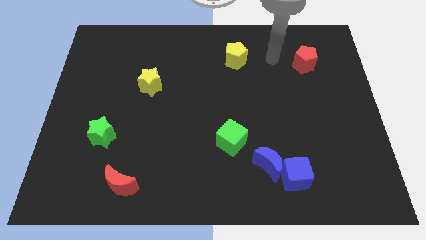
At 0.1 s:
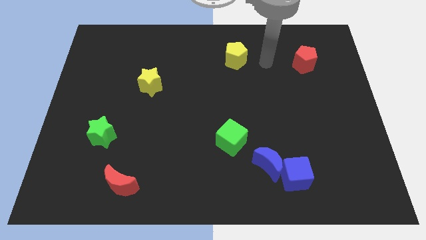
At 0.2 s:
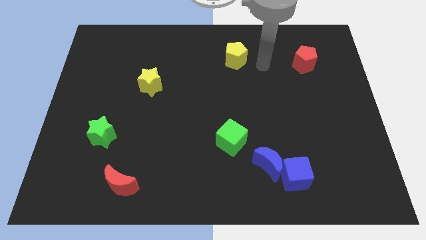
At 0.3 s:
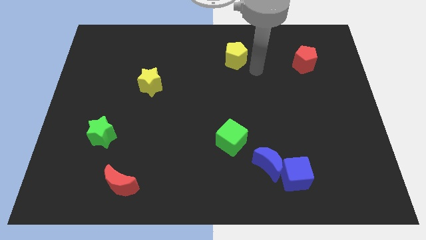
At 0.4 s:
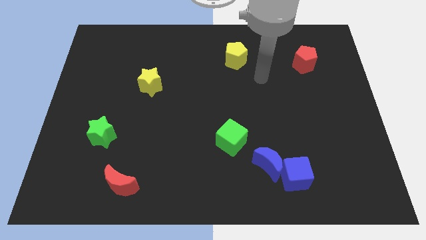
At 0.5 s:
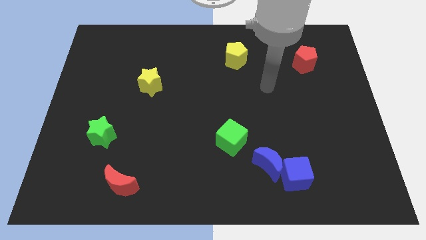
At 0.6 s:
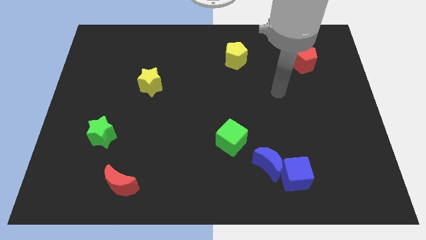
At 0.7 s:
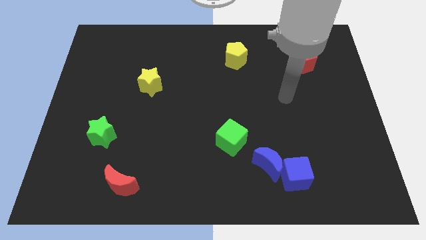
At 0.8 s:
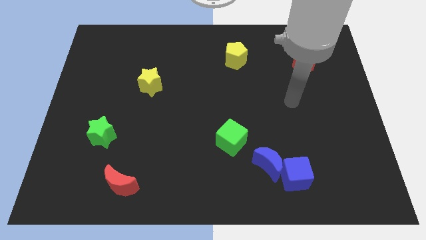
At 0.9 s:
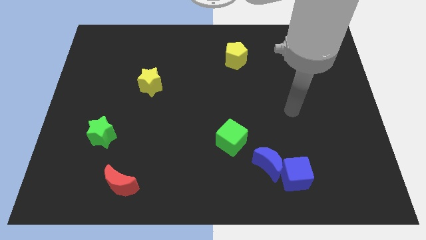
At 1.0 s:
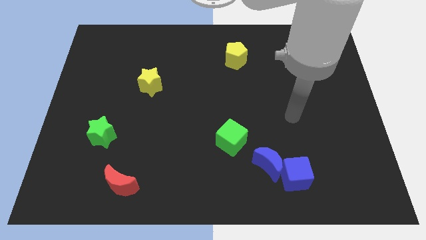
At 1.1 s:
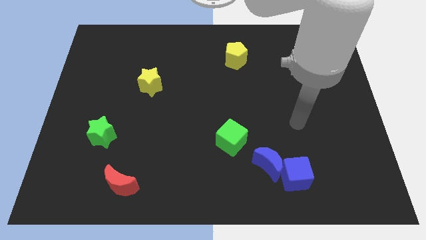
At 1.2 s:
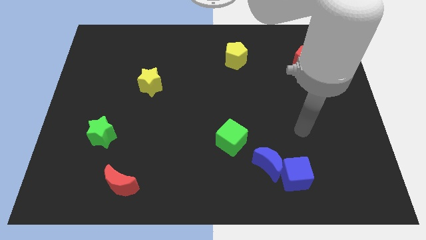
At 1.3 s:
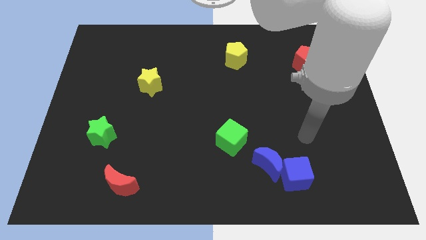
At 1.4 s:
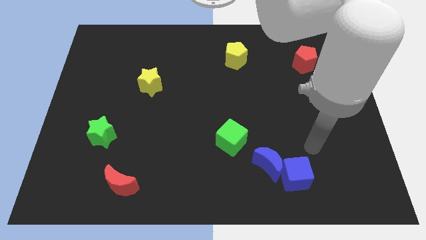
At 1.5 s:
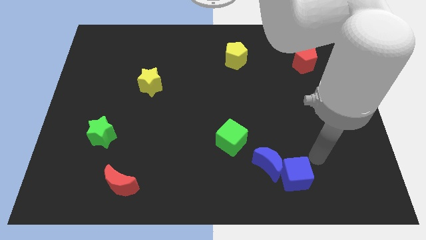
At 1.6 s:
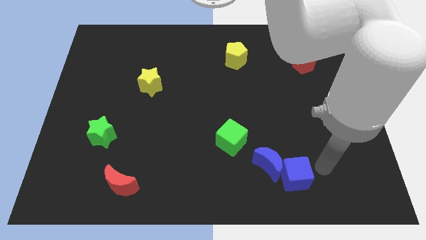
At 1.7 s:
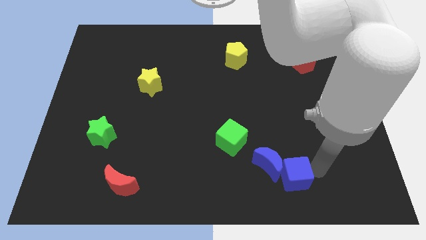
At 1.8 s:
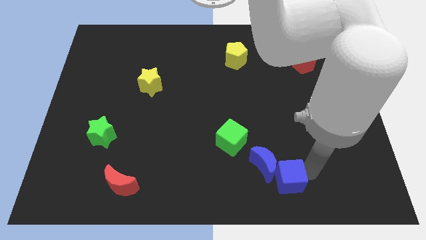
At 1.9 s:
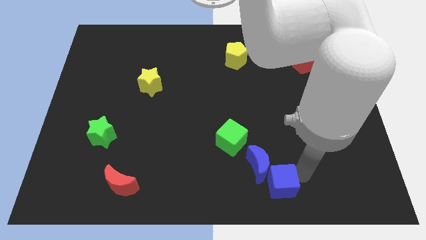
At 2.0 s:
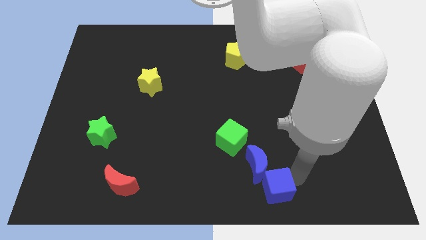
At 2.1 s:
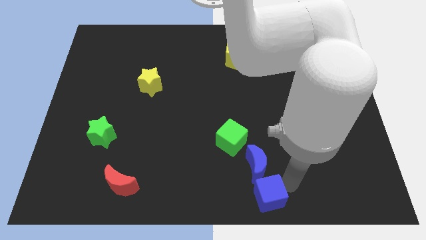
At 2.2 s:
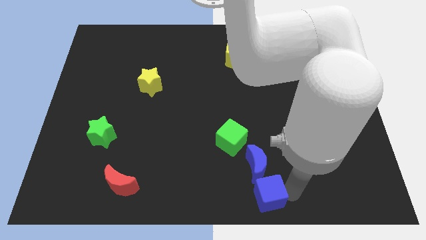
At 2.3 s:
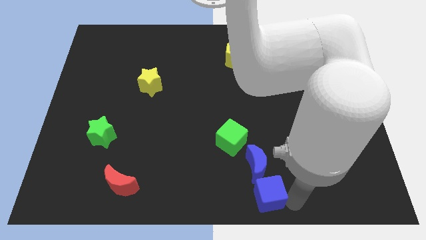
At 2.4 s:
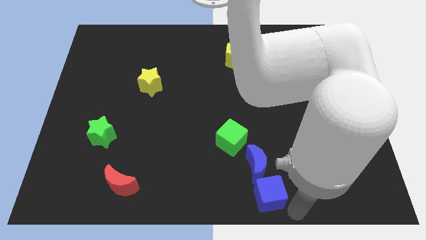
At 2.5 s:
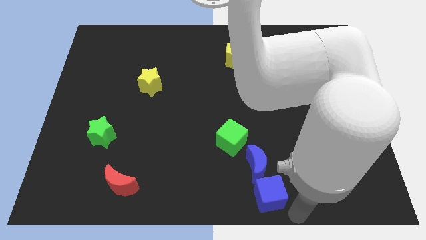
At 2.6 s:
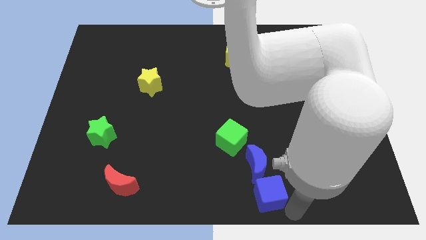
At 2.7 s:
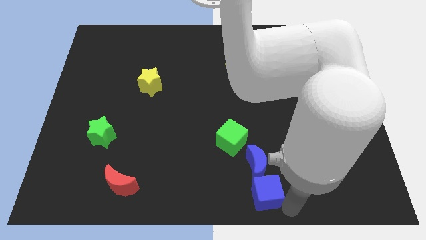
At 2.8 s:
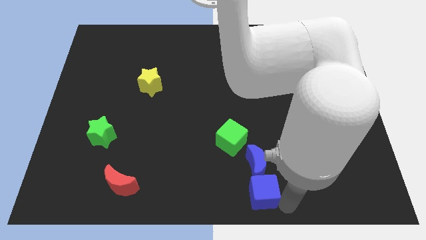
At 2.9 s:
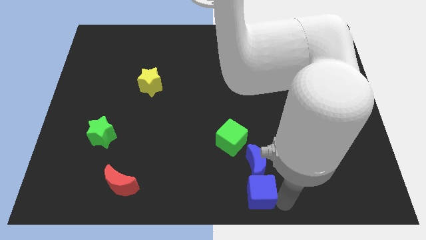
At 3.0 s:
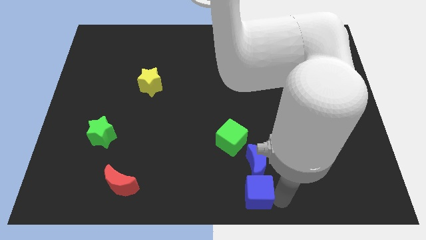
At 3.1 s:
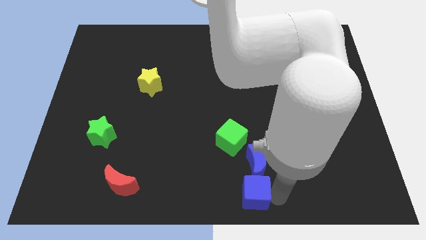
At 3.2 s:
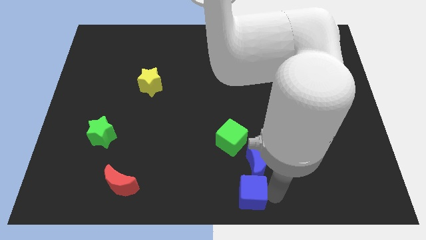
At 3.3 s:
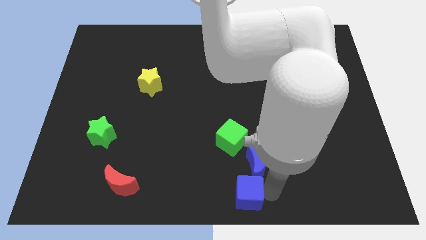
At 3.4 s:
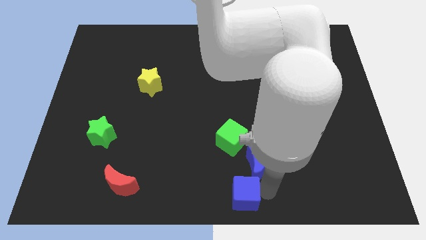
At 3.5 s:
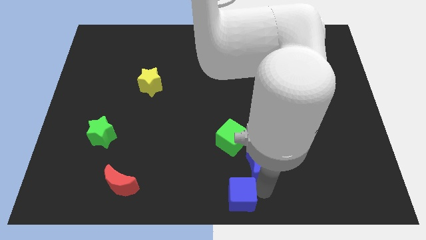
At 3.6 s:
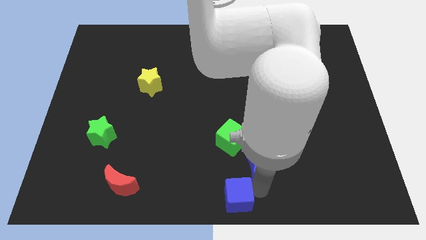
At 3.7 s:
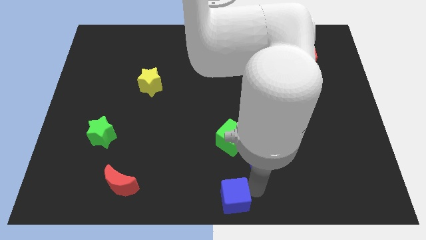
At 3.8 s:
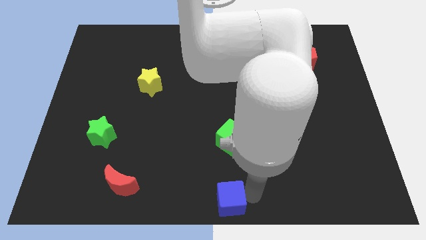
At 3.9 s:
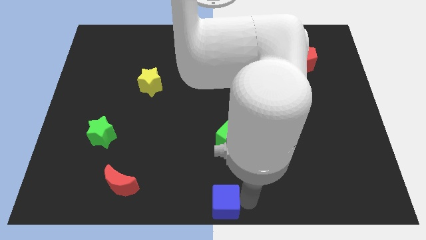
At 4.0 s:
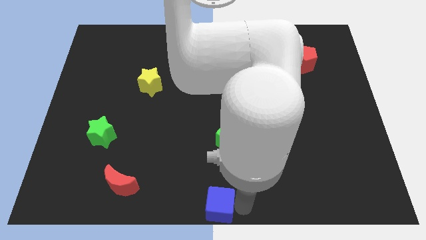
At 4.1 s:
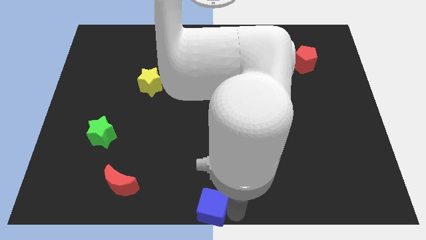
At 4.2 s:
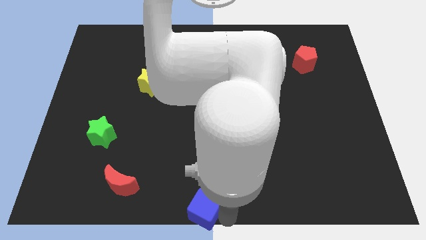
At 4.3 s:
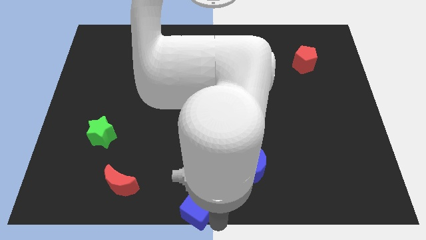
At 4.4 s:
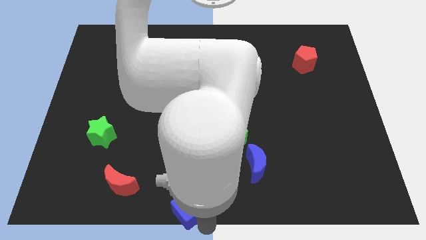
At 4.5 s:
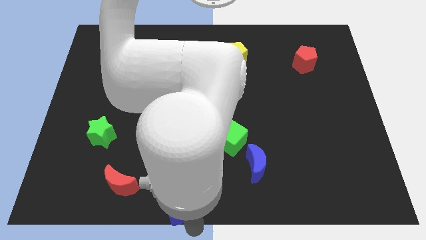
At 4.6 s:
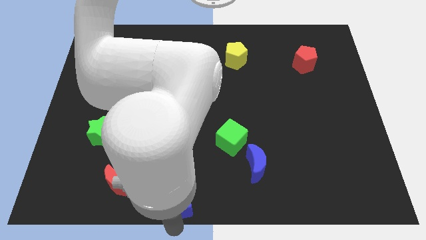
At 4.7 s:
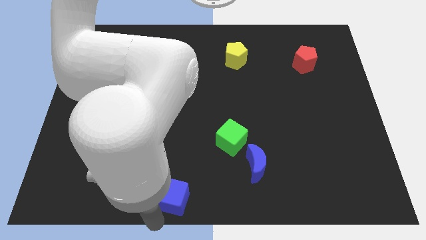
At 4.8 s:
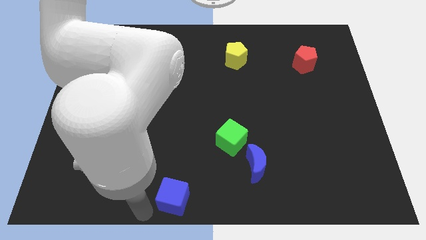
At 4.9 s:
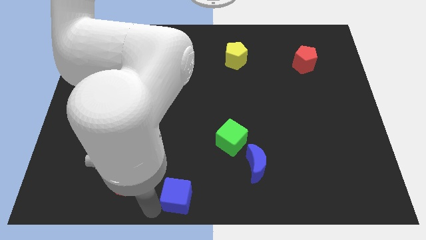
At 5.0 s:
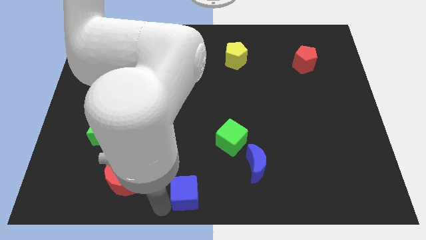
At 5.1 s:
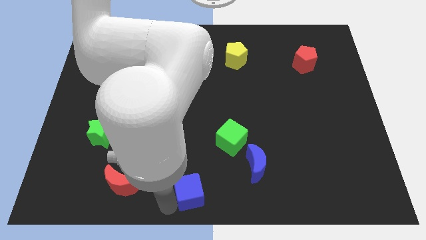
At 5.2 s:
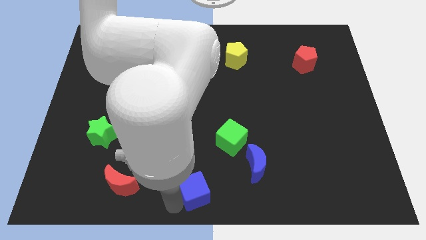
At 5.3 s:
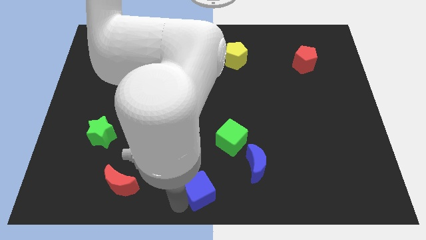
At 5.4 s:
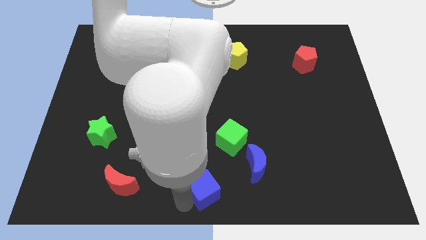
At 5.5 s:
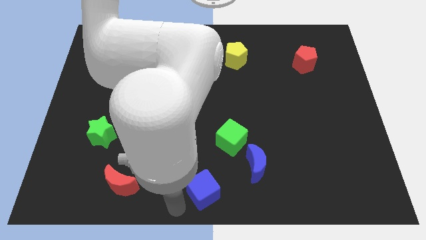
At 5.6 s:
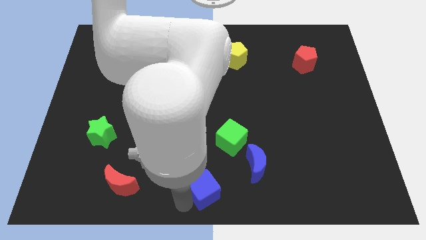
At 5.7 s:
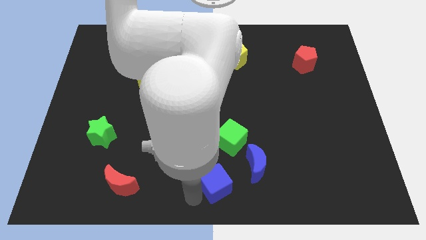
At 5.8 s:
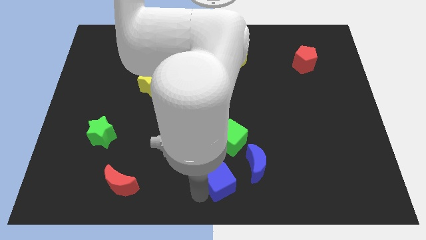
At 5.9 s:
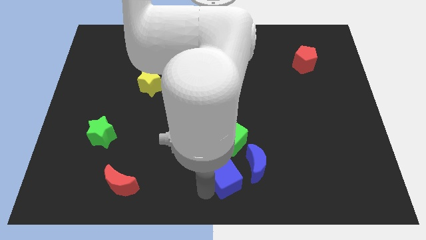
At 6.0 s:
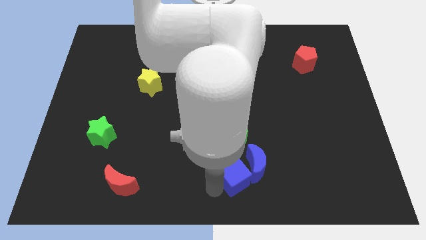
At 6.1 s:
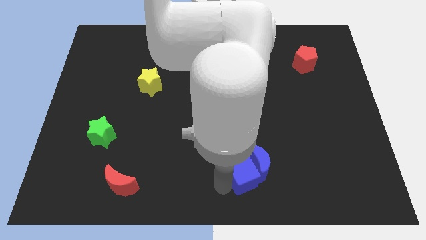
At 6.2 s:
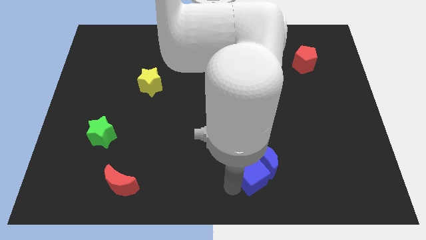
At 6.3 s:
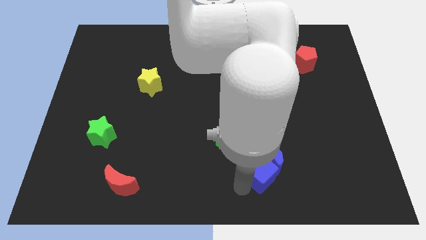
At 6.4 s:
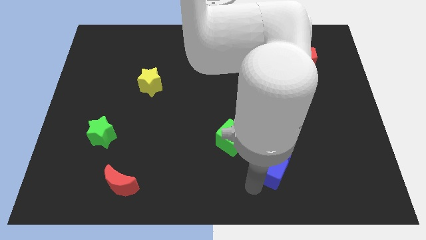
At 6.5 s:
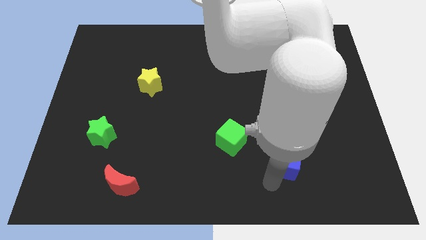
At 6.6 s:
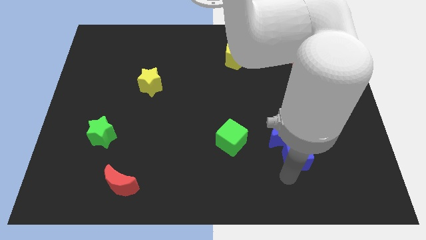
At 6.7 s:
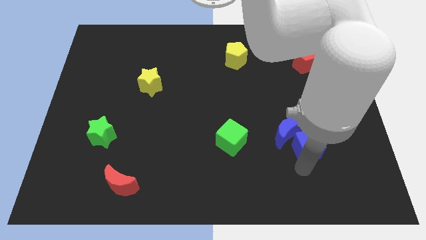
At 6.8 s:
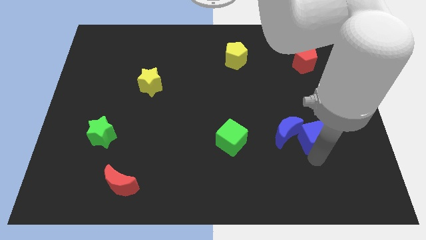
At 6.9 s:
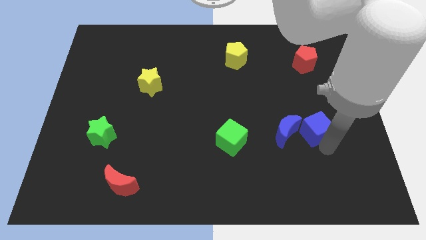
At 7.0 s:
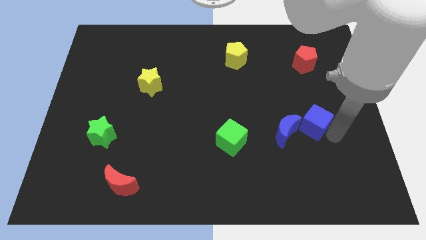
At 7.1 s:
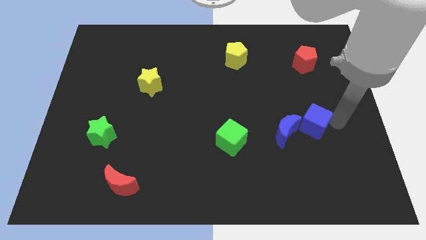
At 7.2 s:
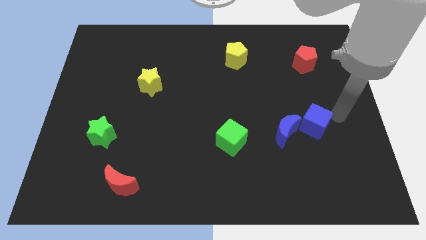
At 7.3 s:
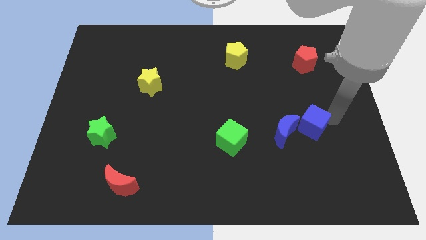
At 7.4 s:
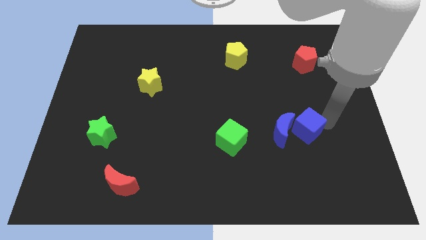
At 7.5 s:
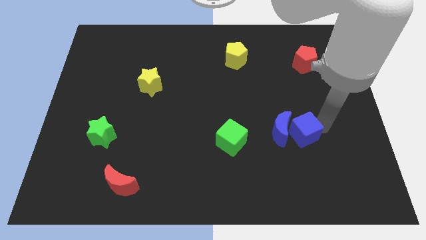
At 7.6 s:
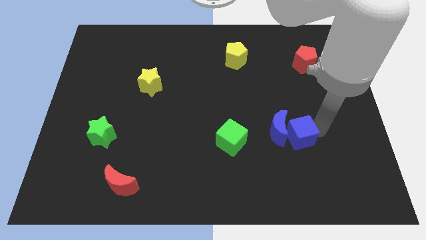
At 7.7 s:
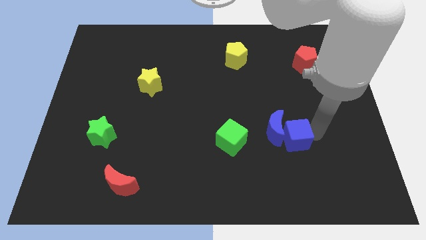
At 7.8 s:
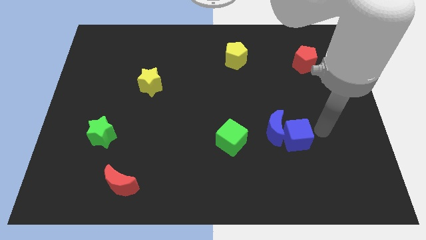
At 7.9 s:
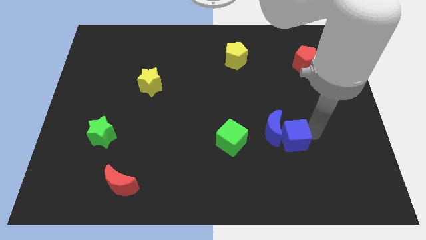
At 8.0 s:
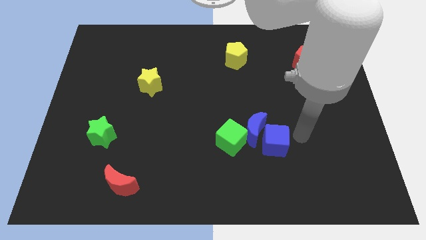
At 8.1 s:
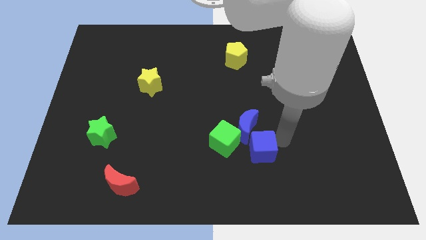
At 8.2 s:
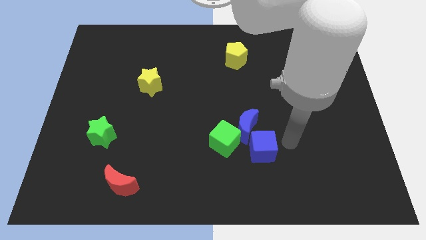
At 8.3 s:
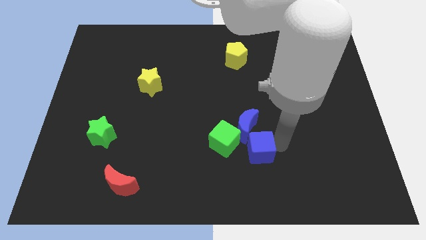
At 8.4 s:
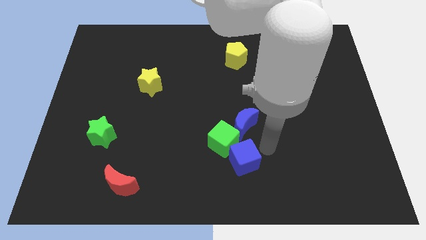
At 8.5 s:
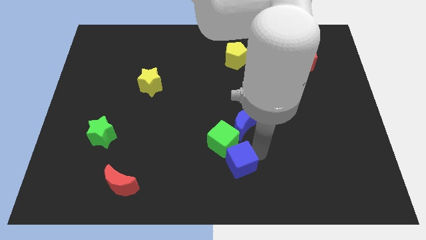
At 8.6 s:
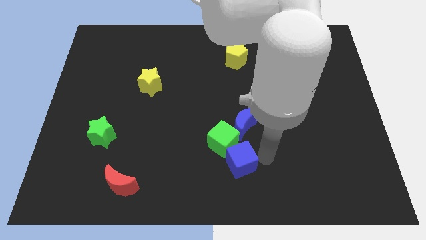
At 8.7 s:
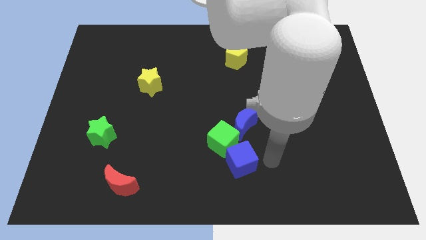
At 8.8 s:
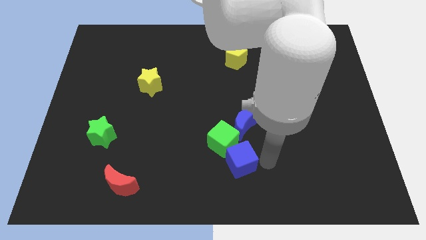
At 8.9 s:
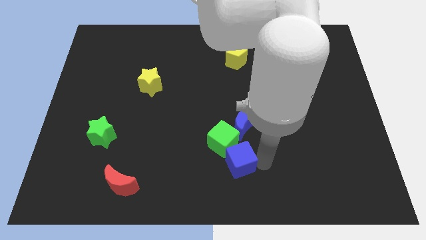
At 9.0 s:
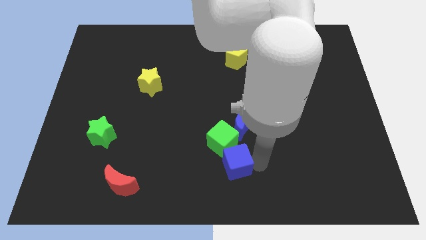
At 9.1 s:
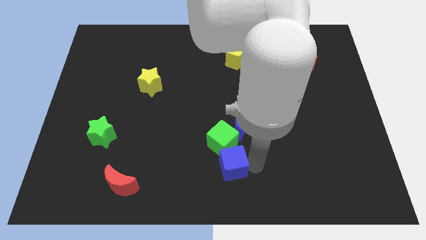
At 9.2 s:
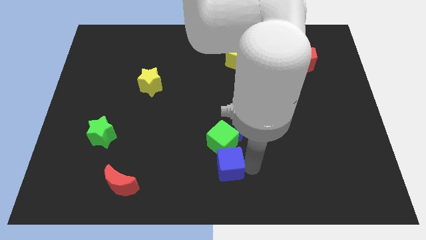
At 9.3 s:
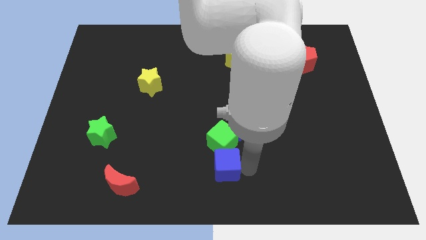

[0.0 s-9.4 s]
move the blue cube to the bottom left of the green cube
